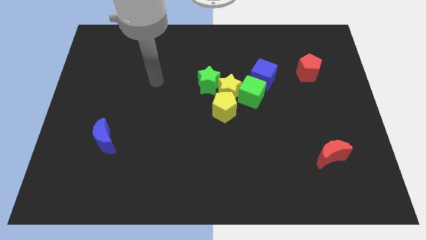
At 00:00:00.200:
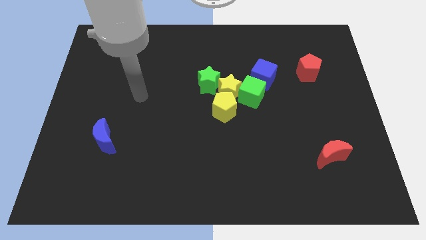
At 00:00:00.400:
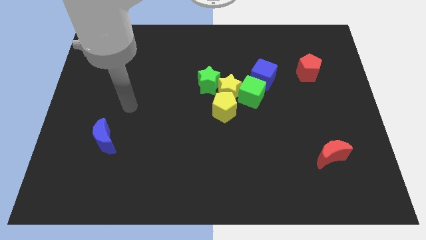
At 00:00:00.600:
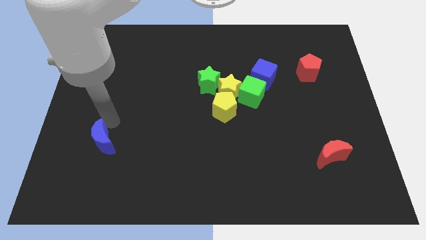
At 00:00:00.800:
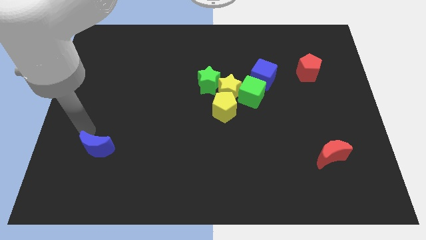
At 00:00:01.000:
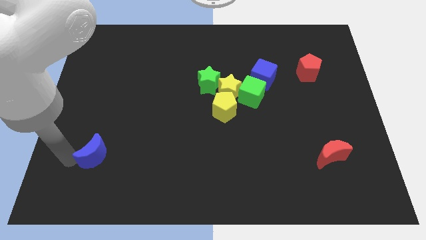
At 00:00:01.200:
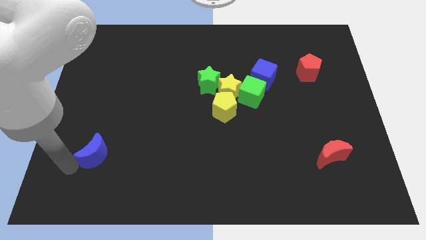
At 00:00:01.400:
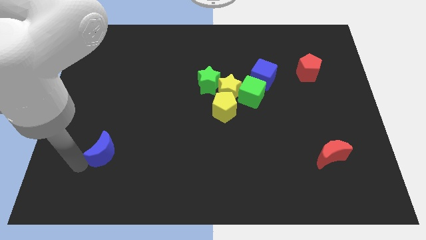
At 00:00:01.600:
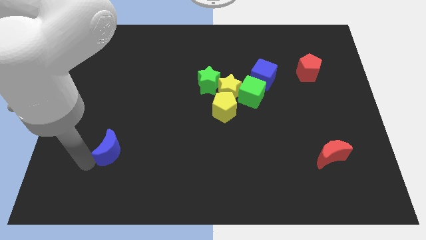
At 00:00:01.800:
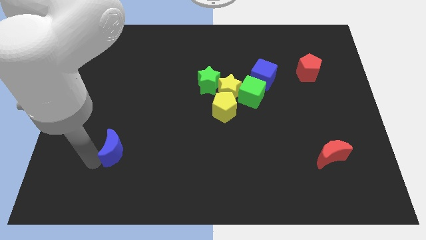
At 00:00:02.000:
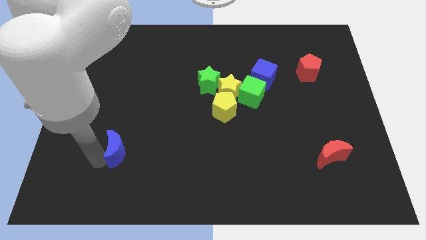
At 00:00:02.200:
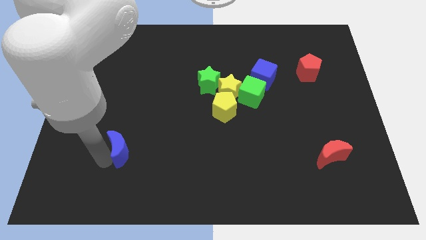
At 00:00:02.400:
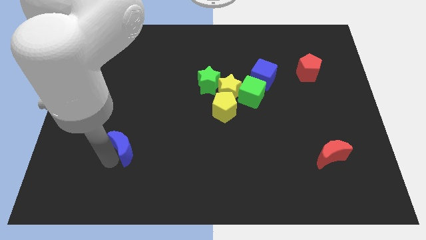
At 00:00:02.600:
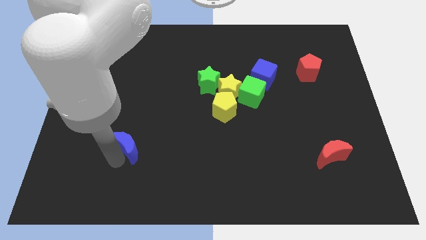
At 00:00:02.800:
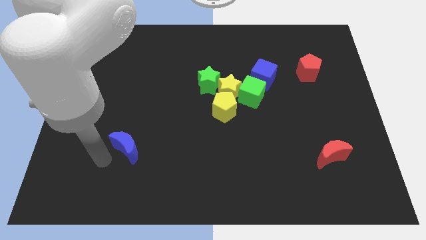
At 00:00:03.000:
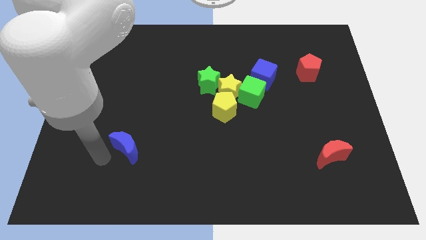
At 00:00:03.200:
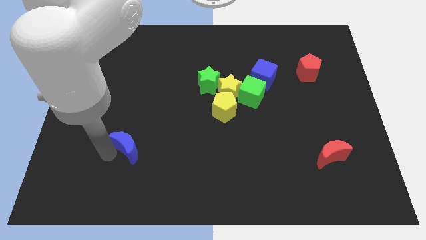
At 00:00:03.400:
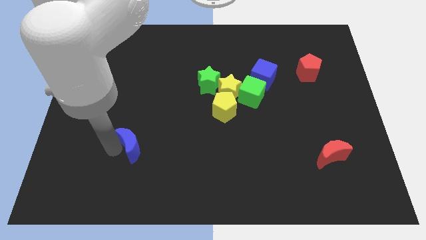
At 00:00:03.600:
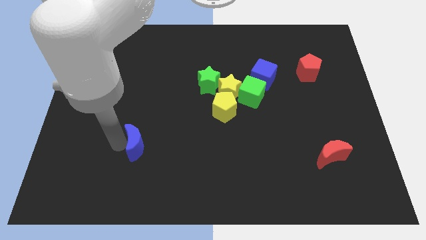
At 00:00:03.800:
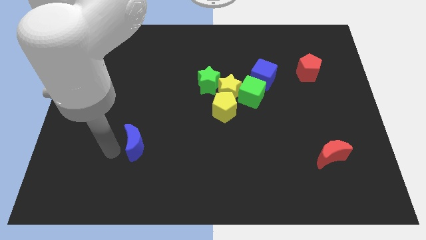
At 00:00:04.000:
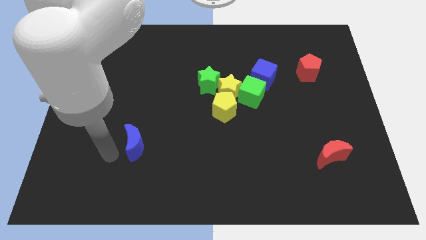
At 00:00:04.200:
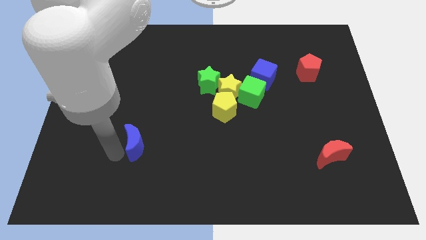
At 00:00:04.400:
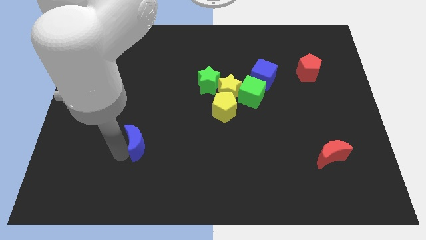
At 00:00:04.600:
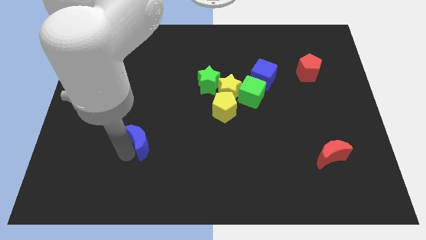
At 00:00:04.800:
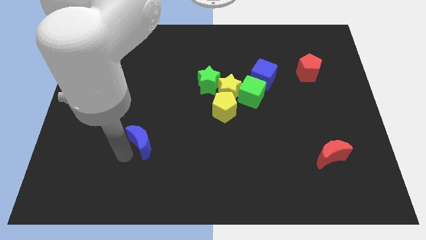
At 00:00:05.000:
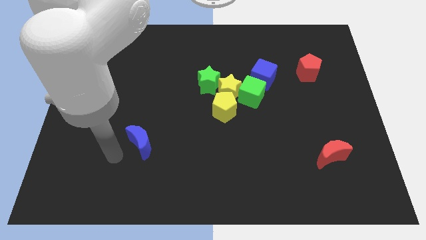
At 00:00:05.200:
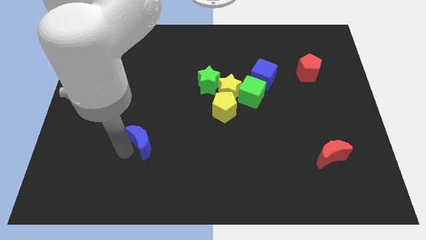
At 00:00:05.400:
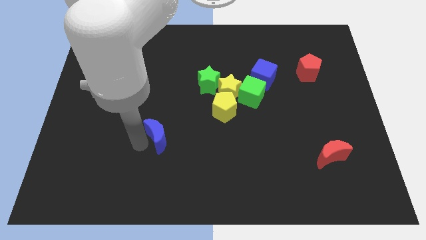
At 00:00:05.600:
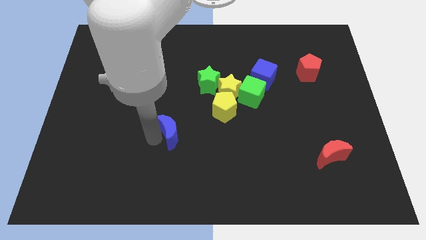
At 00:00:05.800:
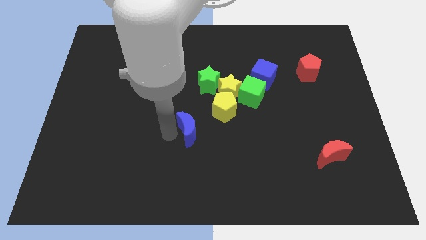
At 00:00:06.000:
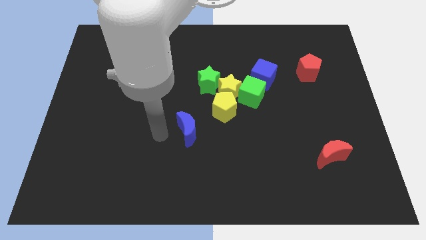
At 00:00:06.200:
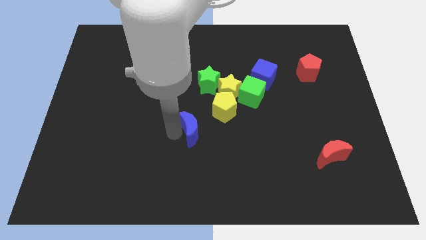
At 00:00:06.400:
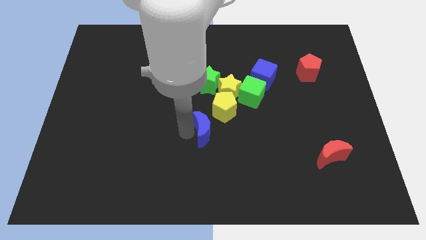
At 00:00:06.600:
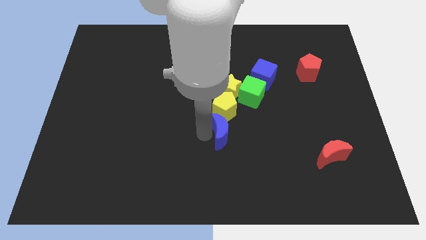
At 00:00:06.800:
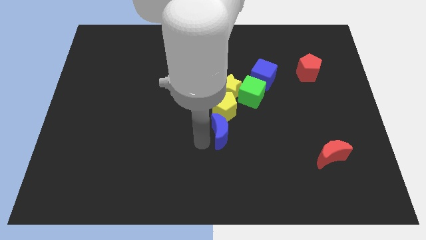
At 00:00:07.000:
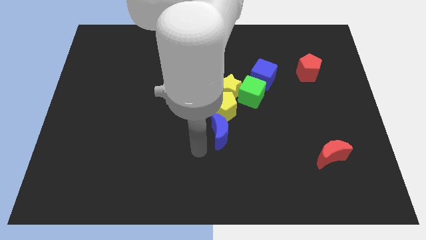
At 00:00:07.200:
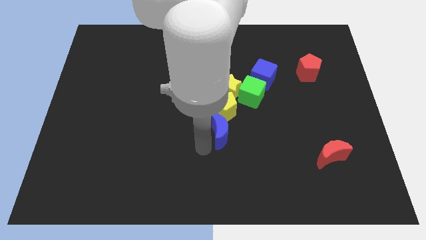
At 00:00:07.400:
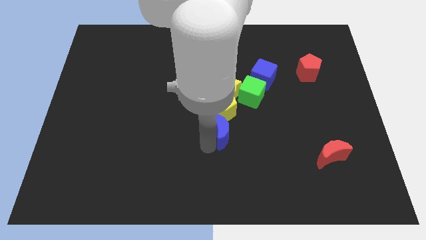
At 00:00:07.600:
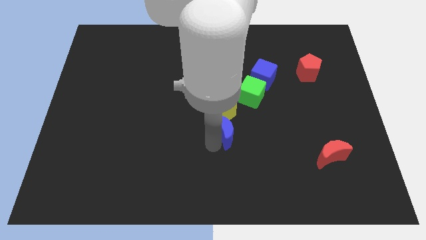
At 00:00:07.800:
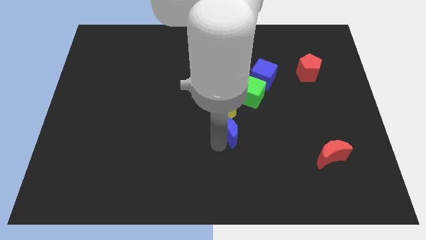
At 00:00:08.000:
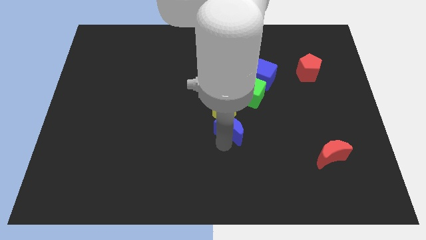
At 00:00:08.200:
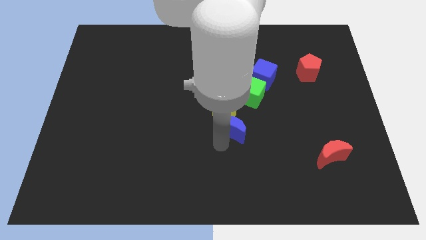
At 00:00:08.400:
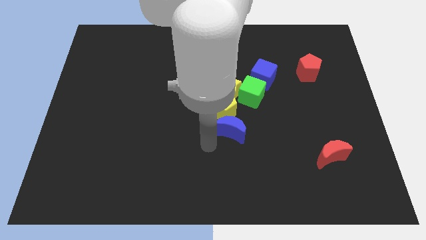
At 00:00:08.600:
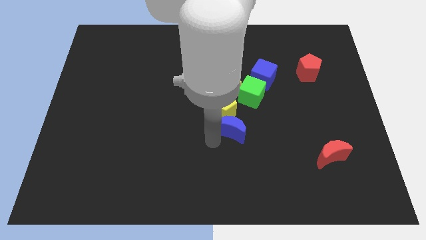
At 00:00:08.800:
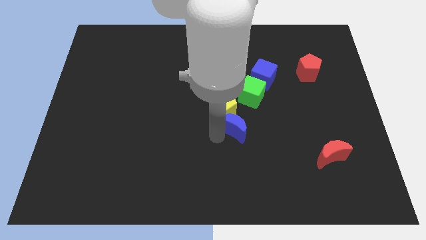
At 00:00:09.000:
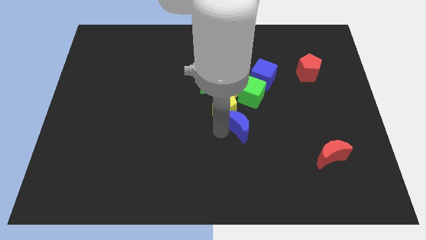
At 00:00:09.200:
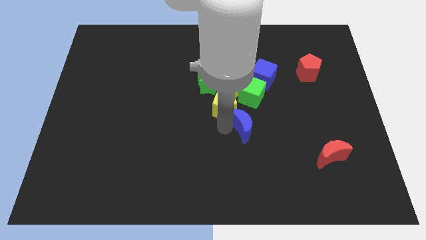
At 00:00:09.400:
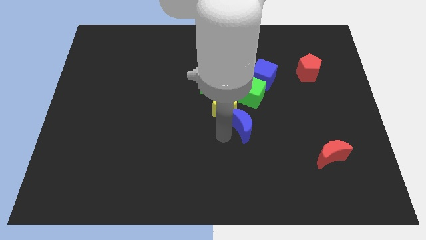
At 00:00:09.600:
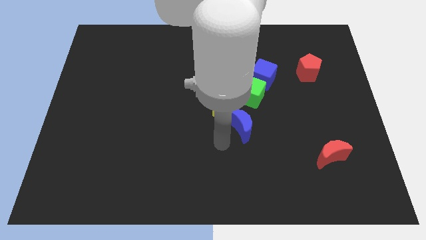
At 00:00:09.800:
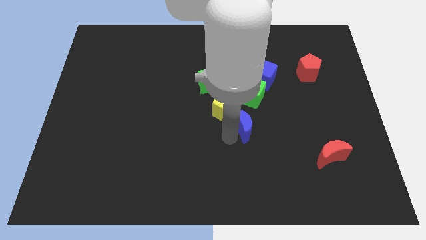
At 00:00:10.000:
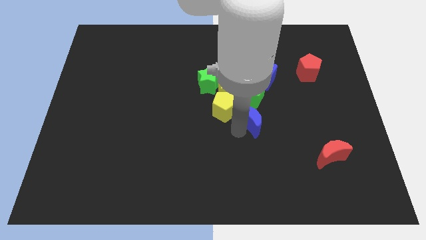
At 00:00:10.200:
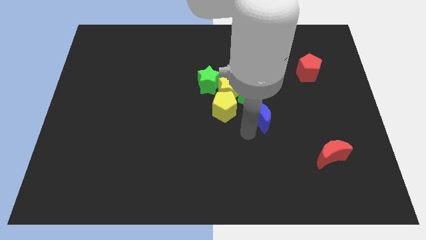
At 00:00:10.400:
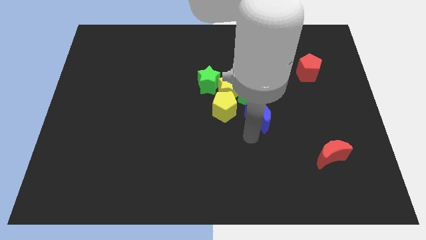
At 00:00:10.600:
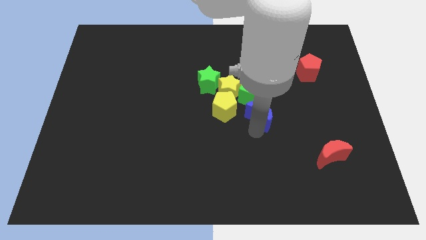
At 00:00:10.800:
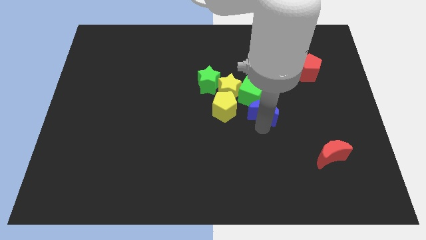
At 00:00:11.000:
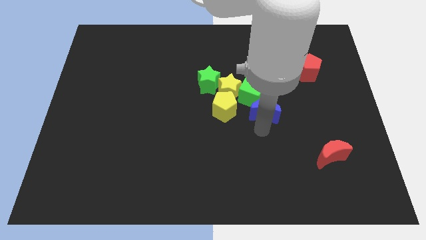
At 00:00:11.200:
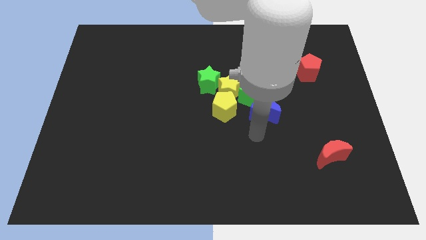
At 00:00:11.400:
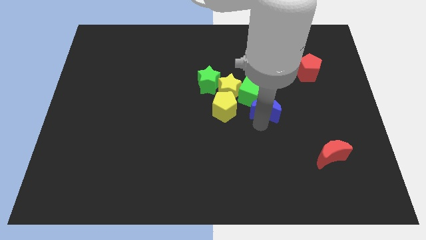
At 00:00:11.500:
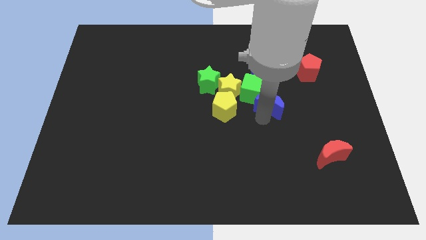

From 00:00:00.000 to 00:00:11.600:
slide the blue moon to the right side of the yellow star

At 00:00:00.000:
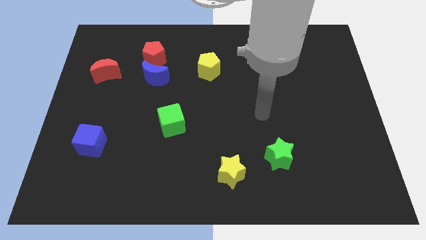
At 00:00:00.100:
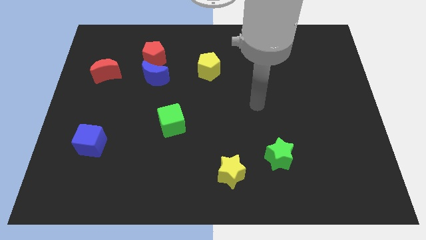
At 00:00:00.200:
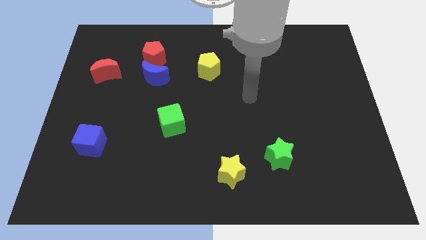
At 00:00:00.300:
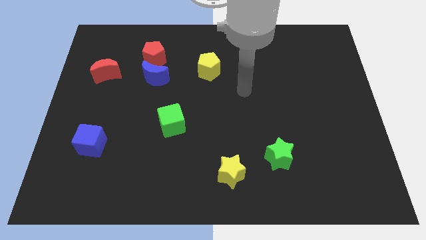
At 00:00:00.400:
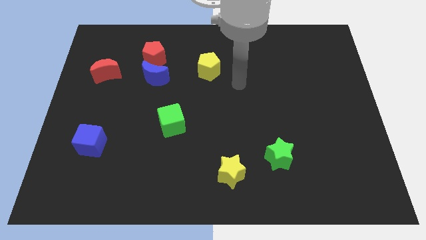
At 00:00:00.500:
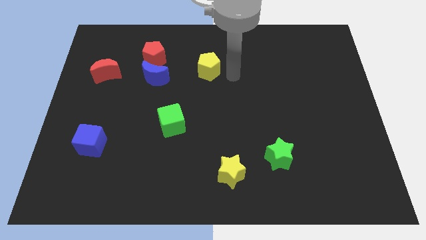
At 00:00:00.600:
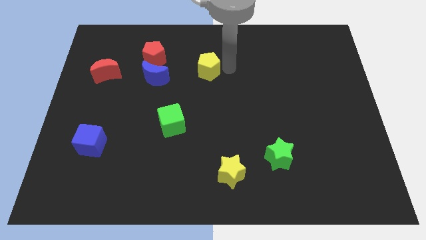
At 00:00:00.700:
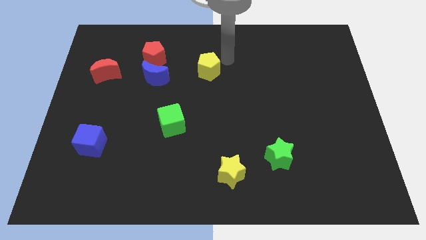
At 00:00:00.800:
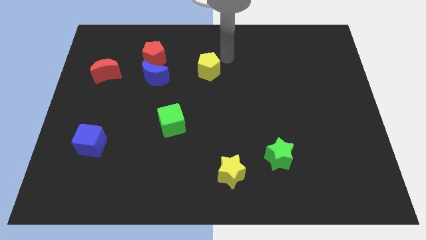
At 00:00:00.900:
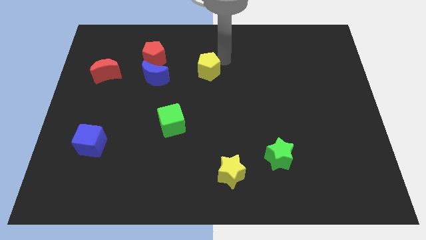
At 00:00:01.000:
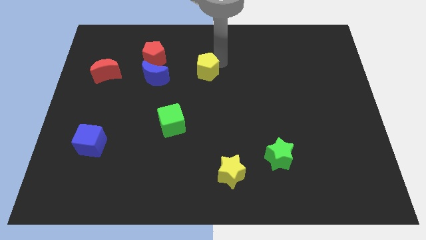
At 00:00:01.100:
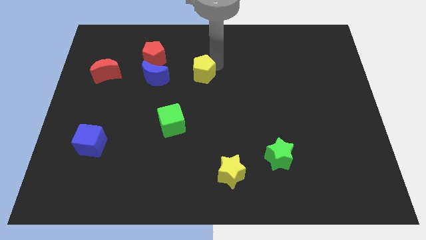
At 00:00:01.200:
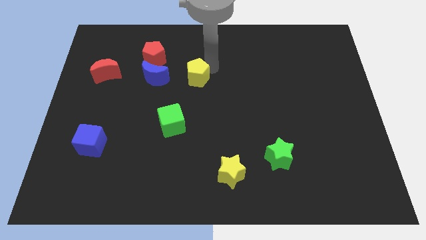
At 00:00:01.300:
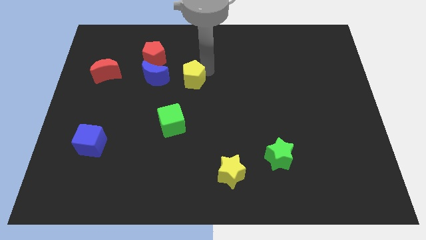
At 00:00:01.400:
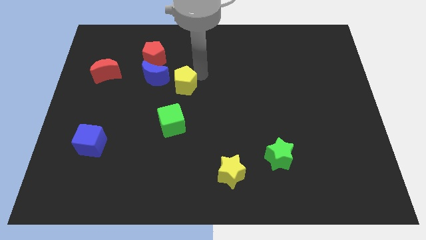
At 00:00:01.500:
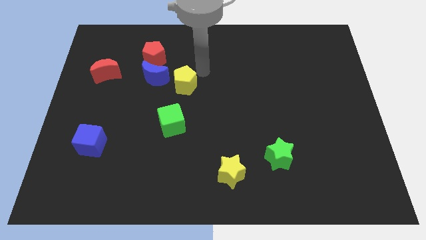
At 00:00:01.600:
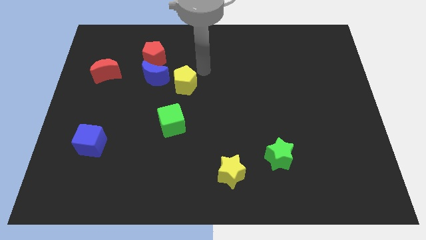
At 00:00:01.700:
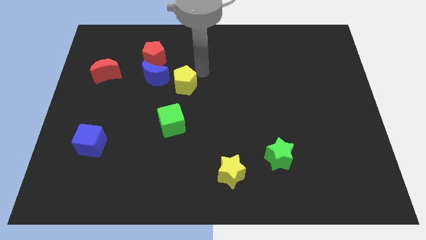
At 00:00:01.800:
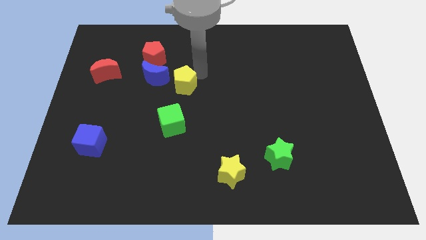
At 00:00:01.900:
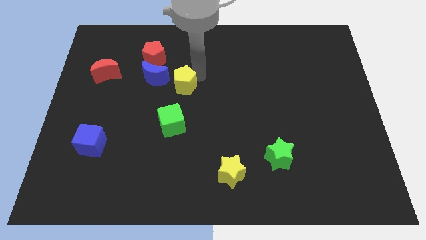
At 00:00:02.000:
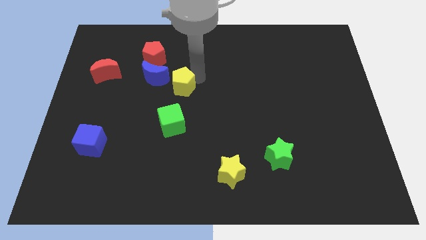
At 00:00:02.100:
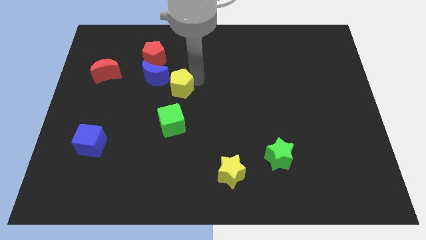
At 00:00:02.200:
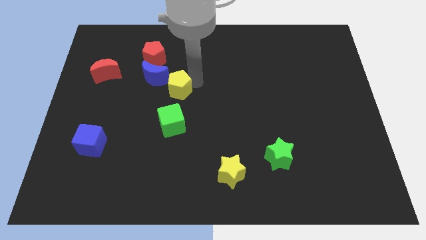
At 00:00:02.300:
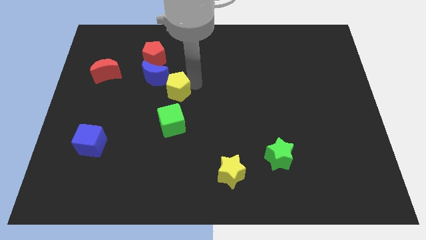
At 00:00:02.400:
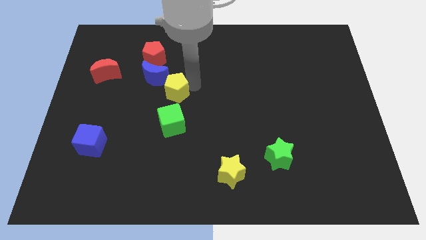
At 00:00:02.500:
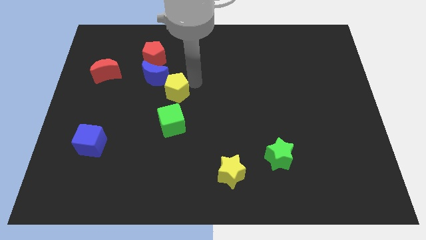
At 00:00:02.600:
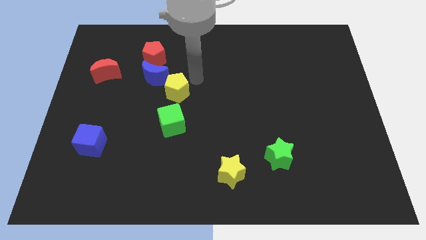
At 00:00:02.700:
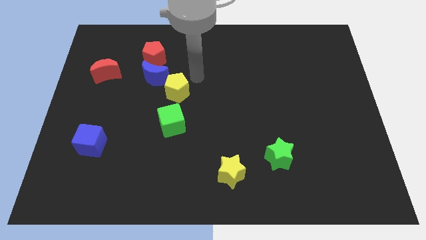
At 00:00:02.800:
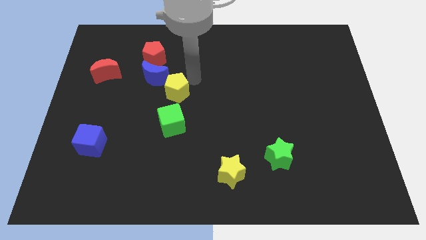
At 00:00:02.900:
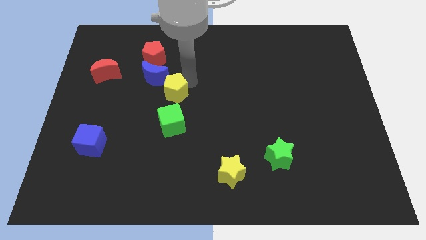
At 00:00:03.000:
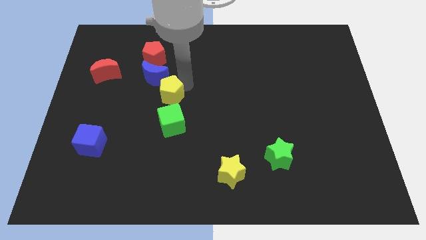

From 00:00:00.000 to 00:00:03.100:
push the yellow pentagon to the bottom of the blue moon
